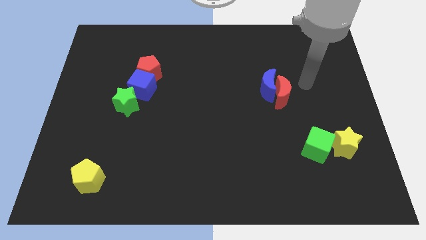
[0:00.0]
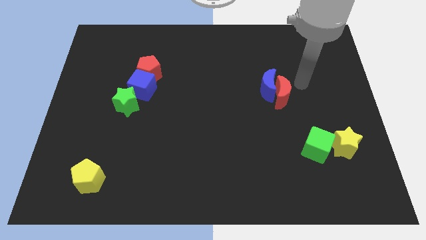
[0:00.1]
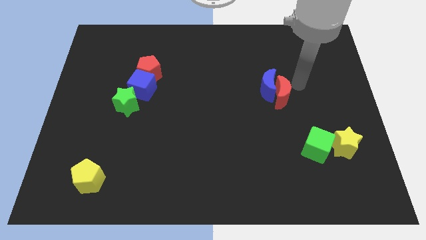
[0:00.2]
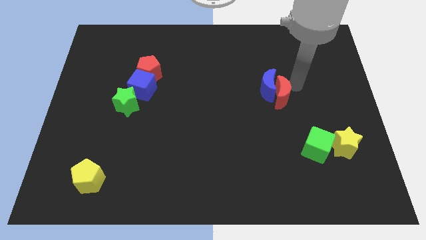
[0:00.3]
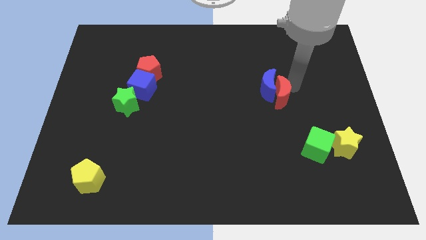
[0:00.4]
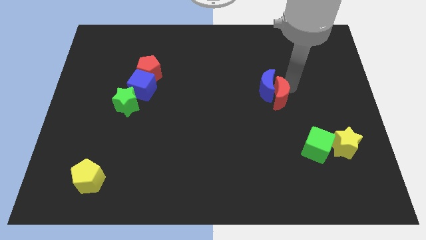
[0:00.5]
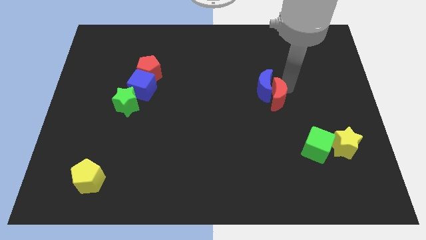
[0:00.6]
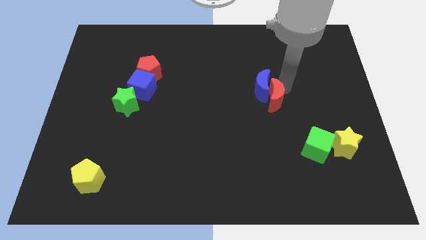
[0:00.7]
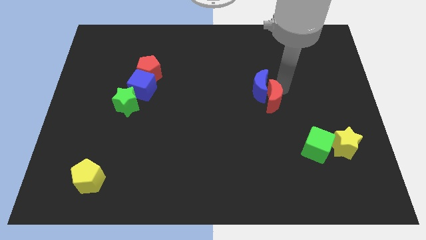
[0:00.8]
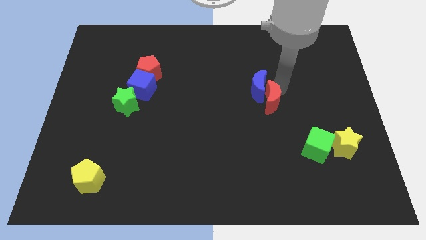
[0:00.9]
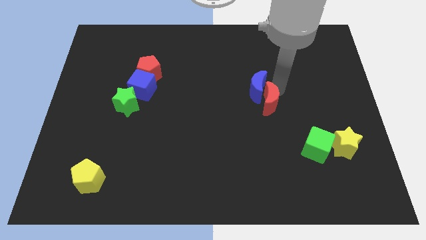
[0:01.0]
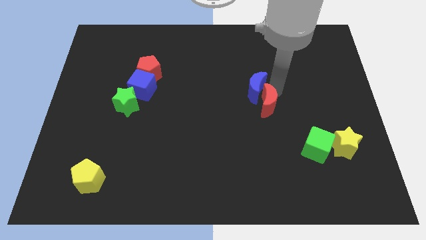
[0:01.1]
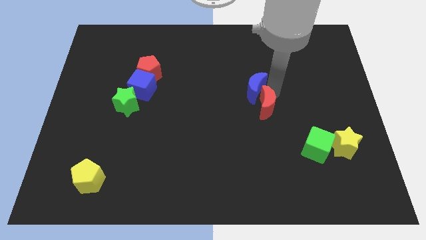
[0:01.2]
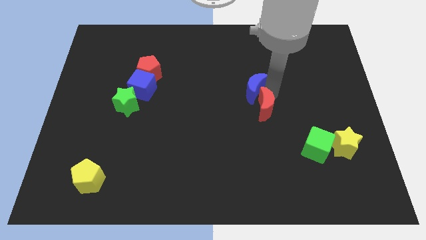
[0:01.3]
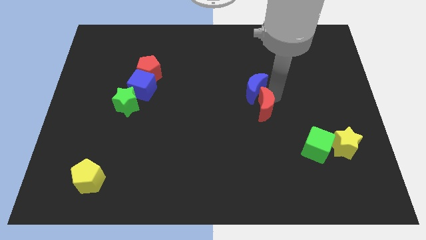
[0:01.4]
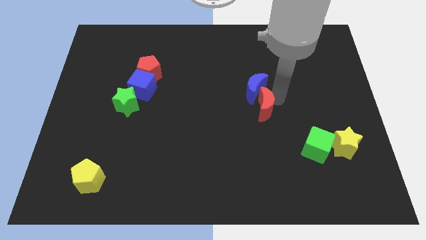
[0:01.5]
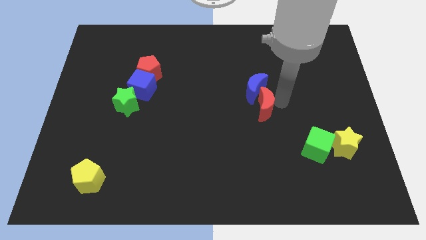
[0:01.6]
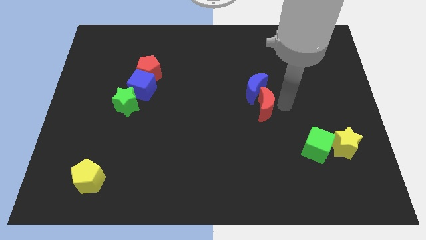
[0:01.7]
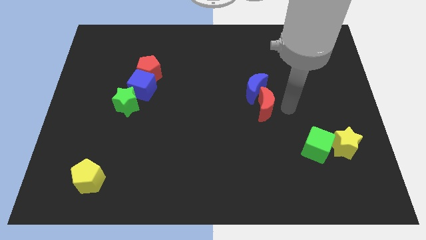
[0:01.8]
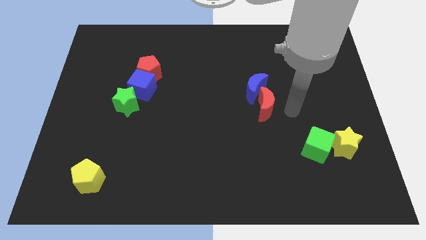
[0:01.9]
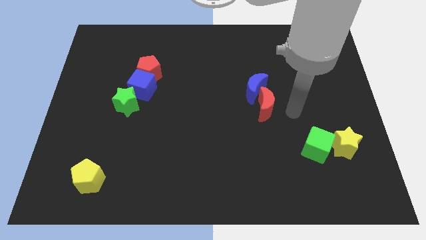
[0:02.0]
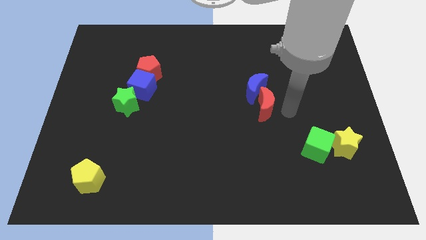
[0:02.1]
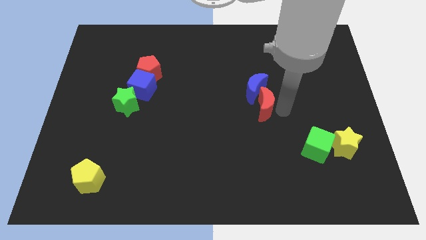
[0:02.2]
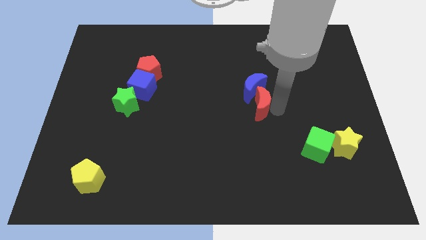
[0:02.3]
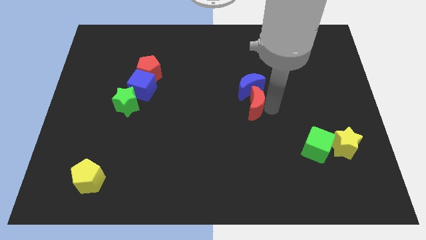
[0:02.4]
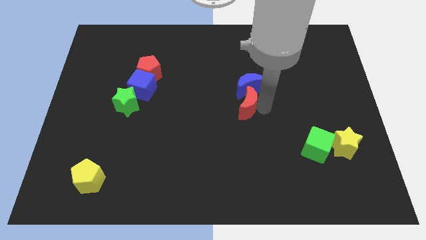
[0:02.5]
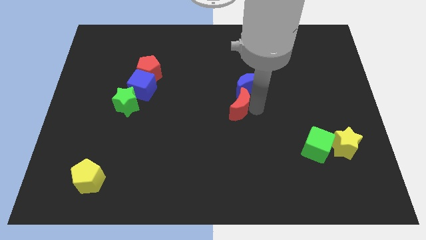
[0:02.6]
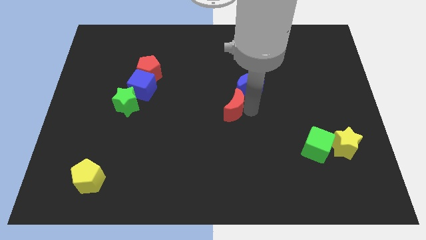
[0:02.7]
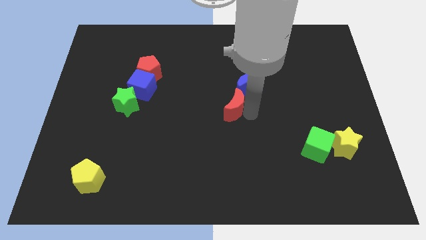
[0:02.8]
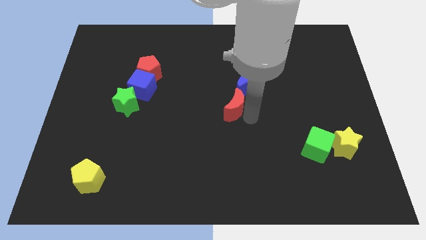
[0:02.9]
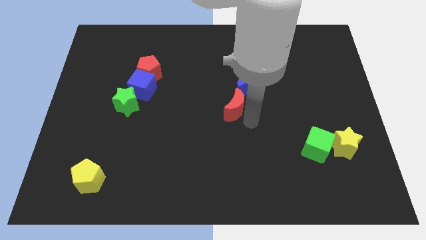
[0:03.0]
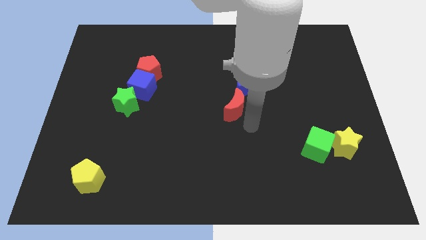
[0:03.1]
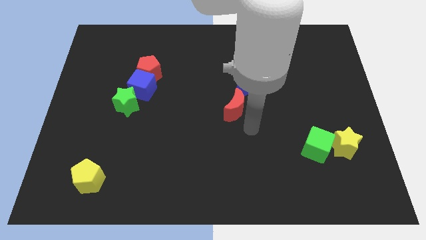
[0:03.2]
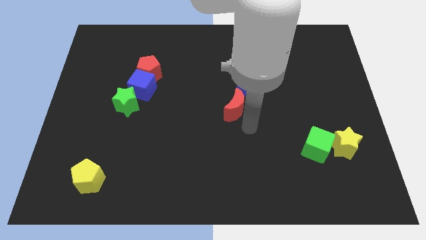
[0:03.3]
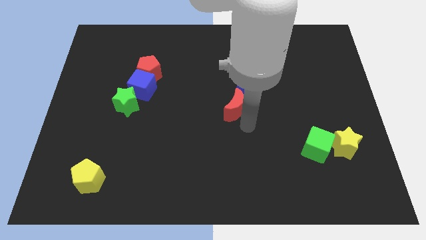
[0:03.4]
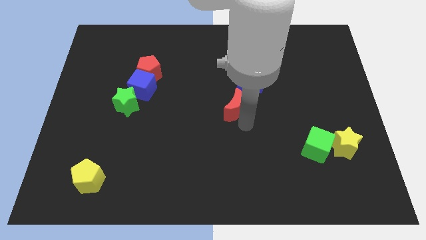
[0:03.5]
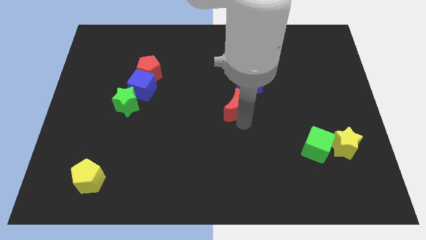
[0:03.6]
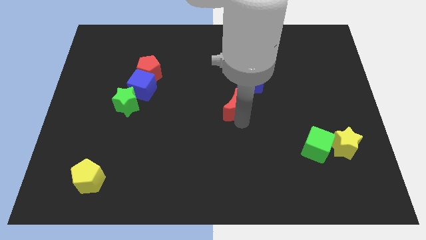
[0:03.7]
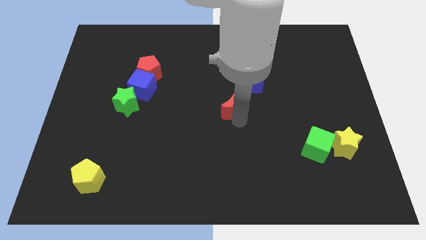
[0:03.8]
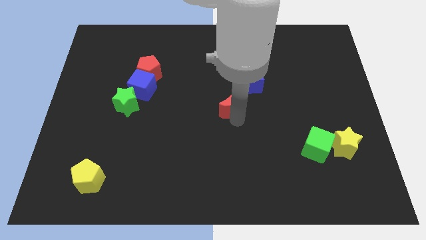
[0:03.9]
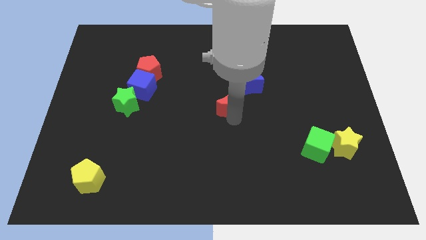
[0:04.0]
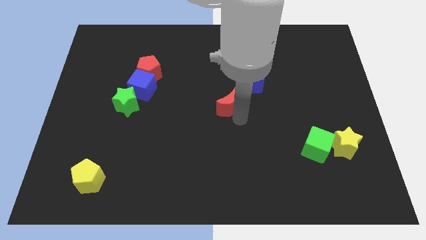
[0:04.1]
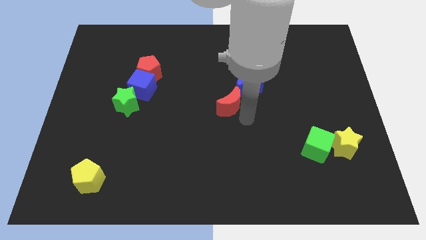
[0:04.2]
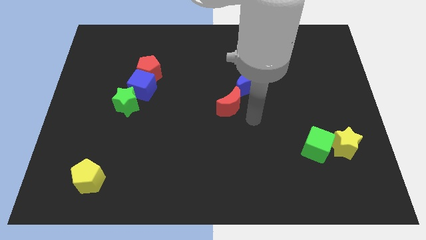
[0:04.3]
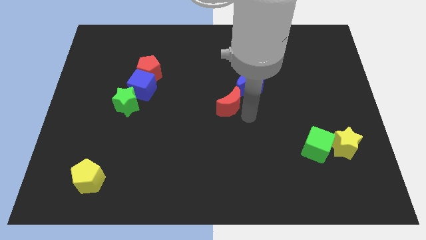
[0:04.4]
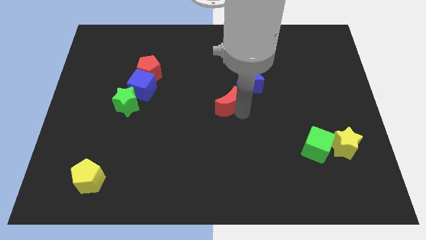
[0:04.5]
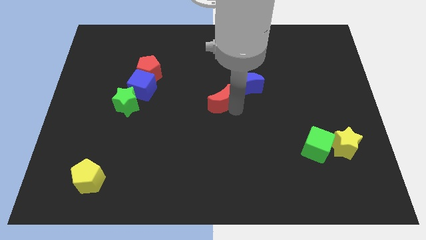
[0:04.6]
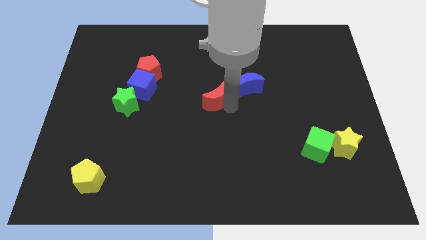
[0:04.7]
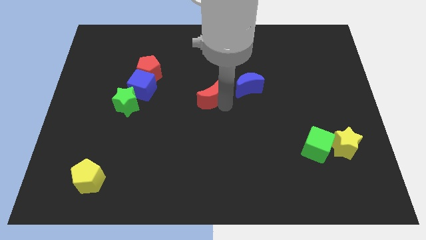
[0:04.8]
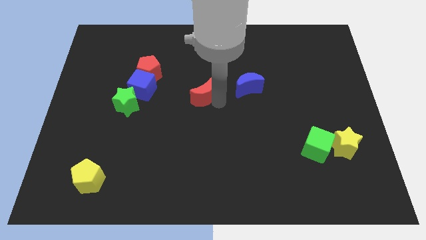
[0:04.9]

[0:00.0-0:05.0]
put the red moon to the right of the blue cube

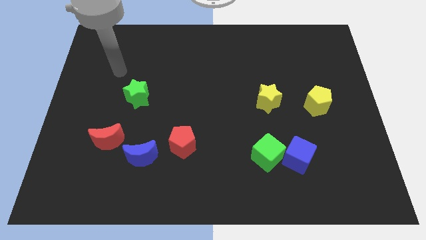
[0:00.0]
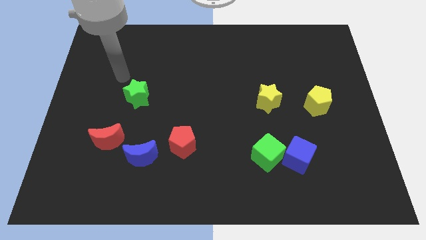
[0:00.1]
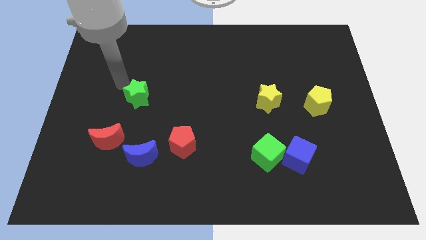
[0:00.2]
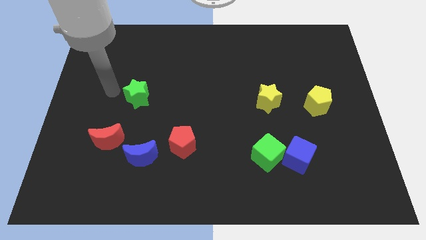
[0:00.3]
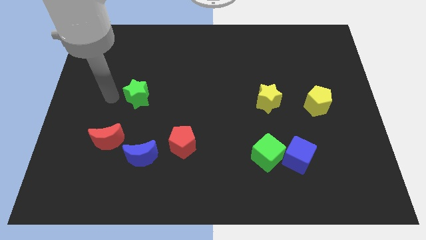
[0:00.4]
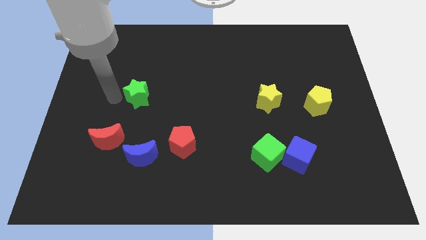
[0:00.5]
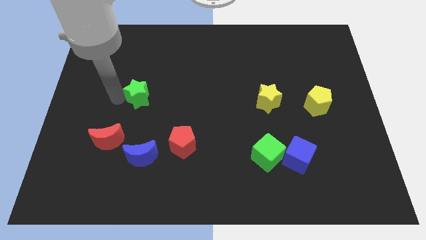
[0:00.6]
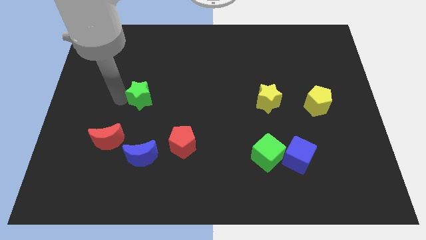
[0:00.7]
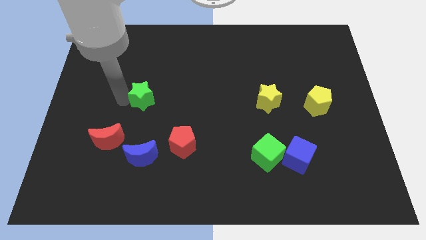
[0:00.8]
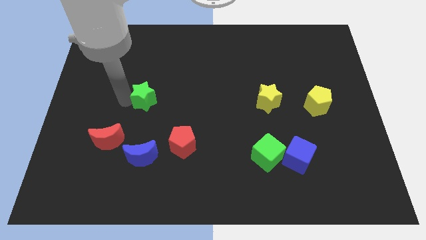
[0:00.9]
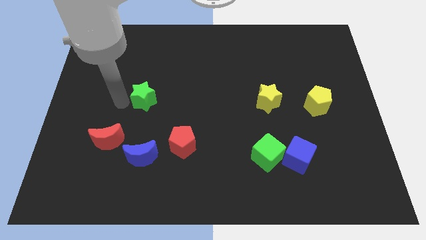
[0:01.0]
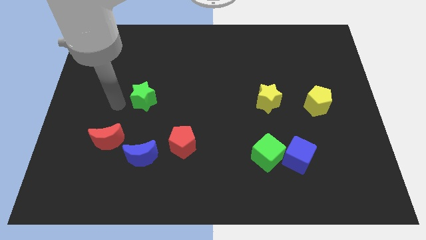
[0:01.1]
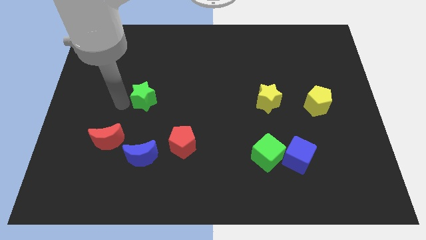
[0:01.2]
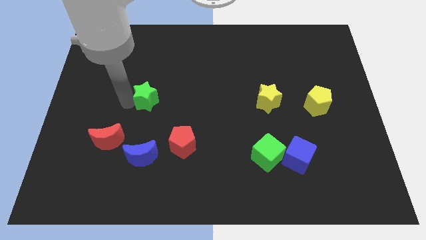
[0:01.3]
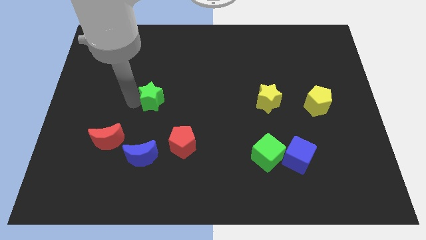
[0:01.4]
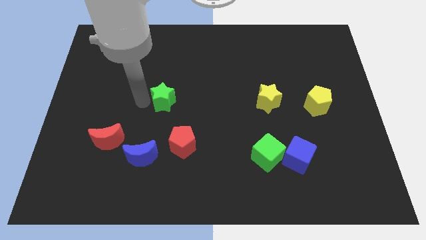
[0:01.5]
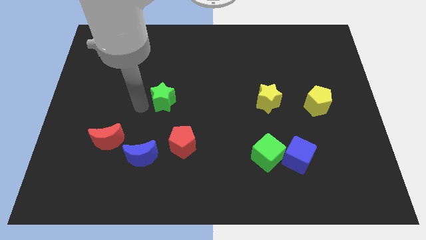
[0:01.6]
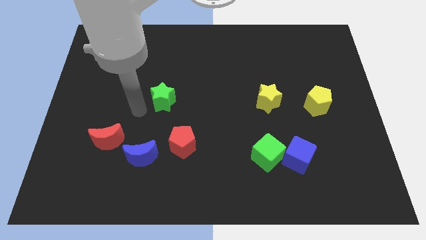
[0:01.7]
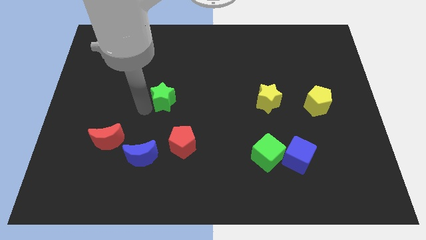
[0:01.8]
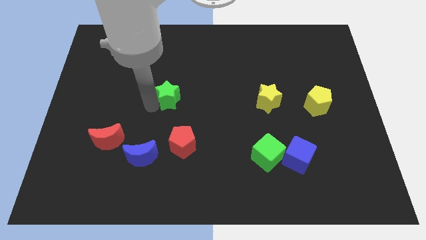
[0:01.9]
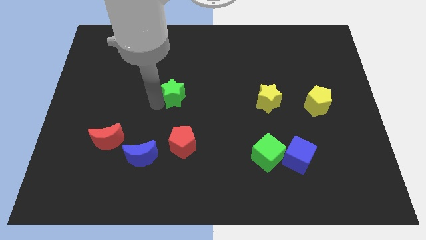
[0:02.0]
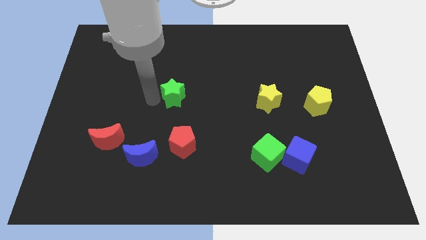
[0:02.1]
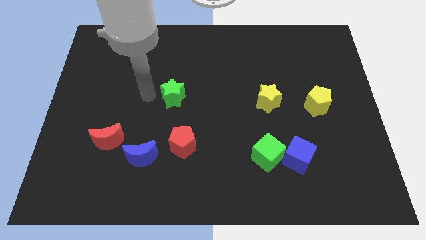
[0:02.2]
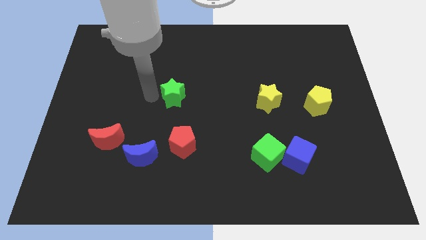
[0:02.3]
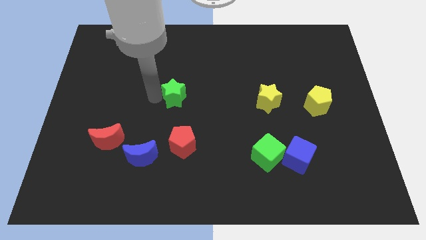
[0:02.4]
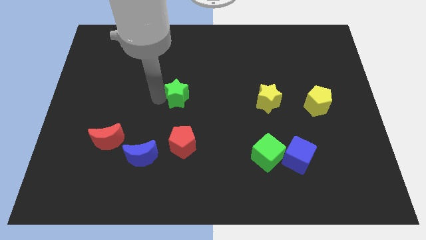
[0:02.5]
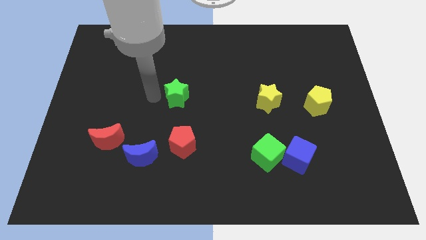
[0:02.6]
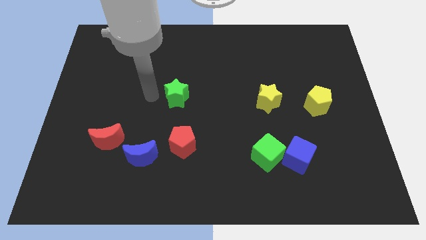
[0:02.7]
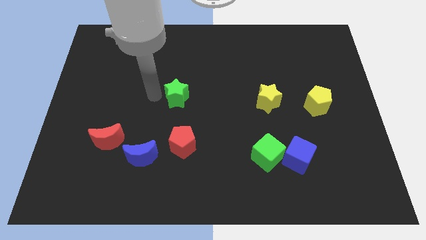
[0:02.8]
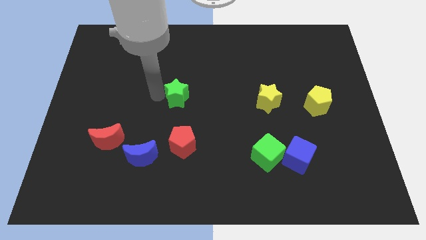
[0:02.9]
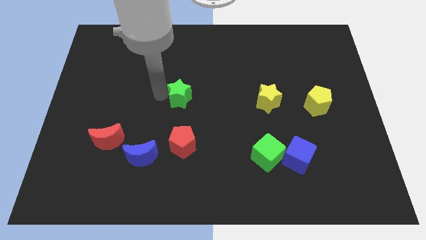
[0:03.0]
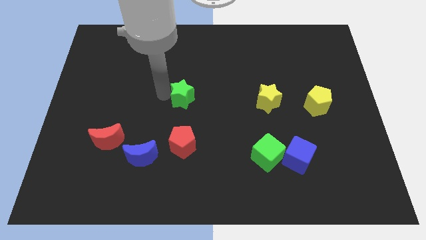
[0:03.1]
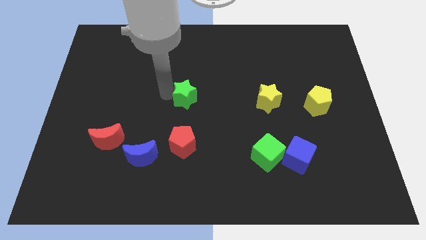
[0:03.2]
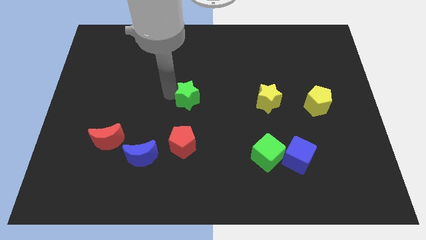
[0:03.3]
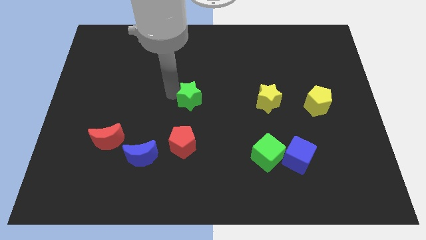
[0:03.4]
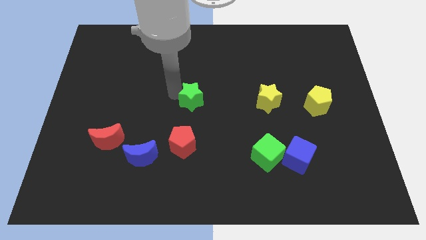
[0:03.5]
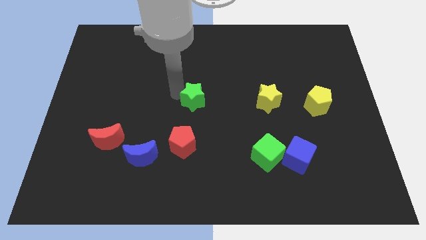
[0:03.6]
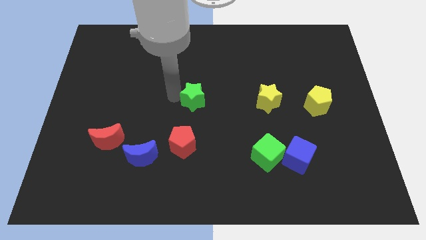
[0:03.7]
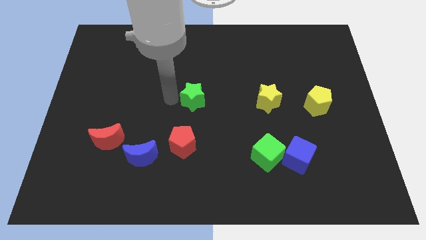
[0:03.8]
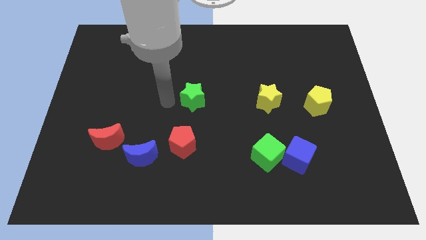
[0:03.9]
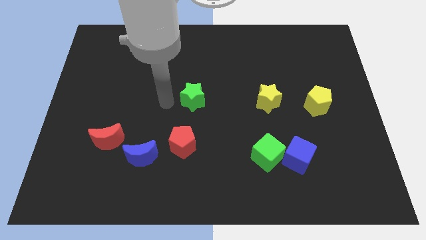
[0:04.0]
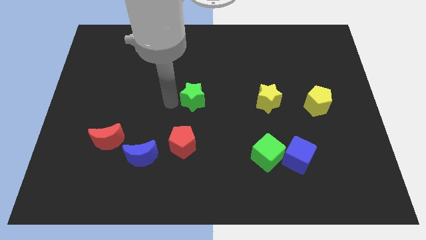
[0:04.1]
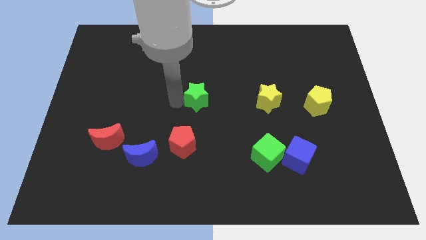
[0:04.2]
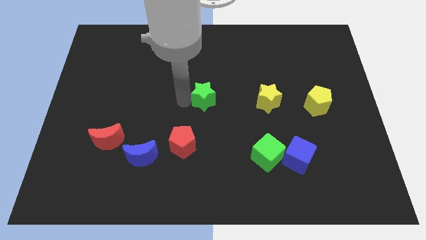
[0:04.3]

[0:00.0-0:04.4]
push the green star left of the yellow star
